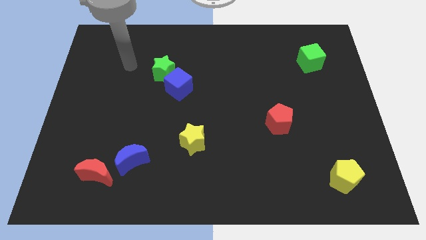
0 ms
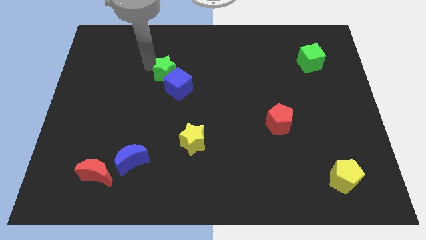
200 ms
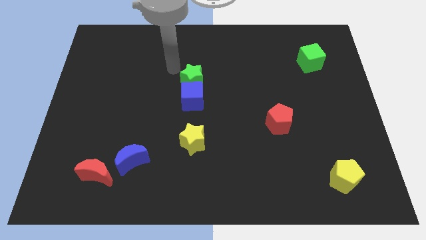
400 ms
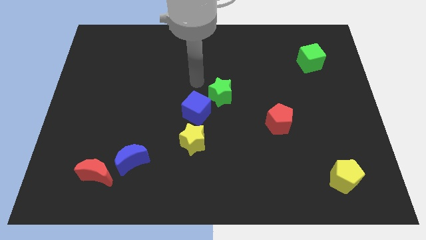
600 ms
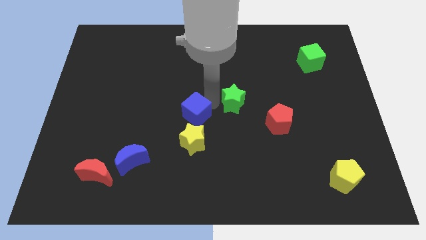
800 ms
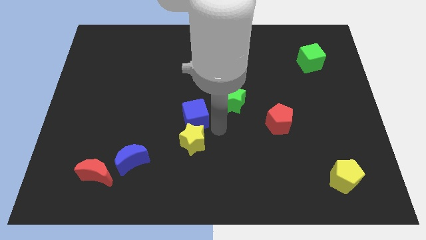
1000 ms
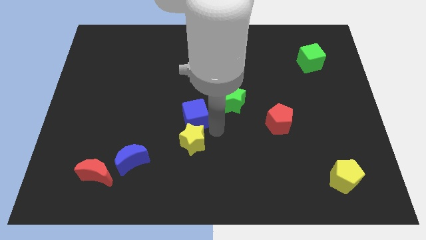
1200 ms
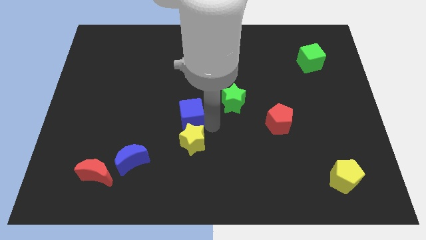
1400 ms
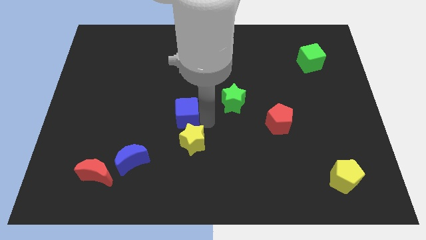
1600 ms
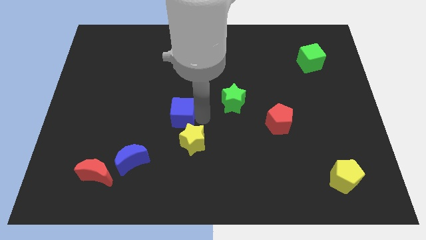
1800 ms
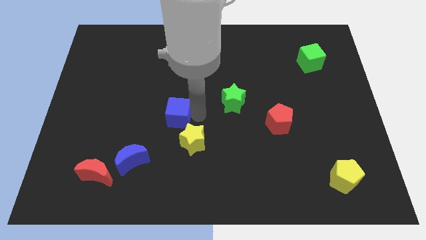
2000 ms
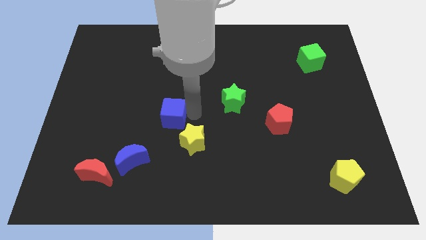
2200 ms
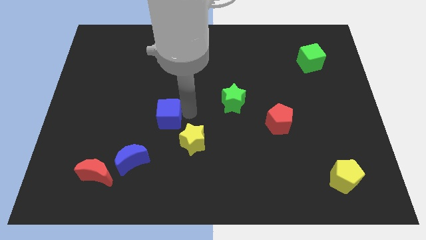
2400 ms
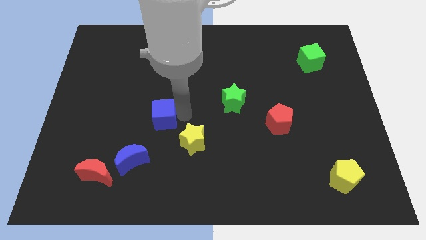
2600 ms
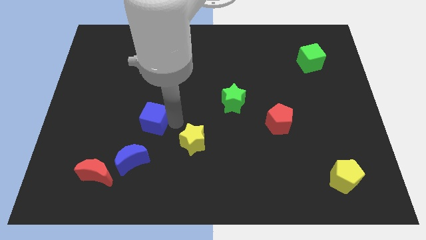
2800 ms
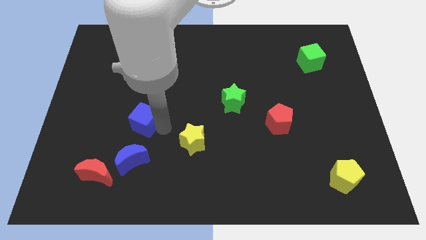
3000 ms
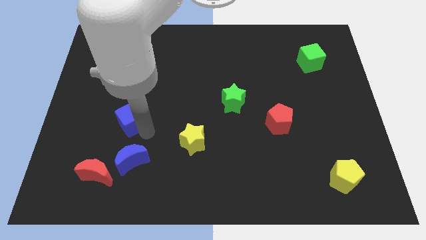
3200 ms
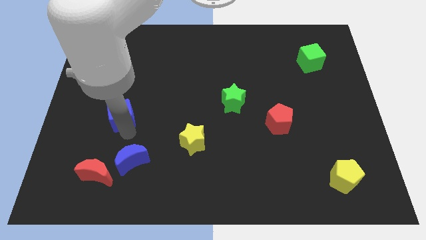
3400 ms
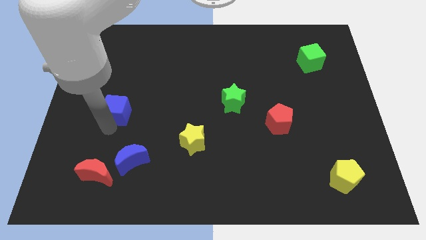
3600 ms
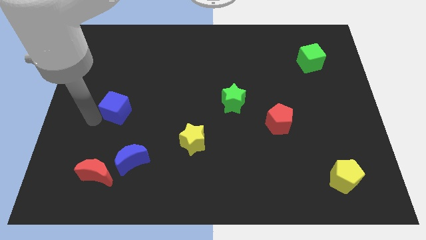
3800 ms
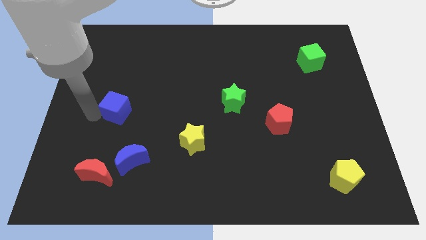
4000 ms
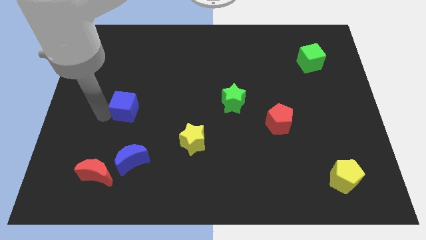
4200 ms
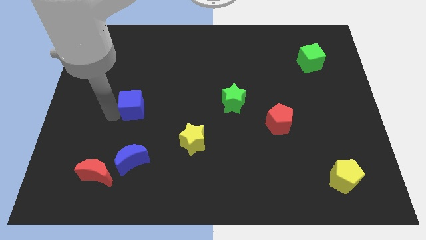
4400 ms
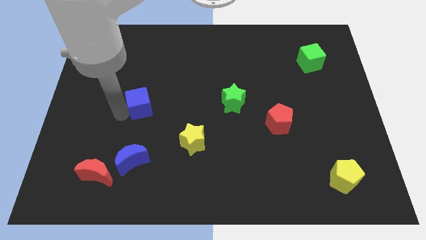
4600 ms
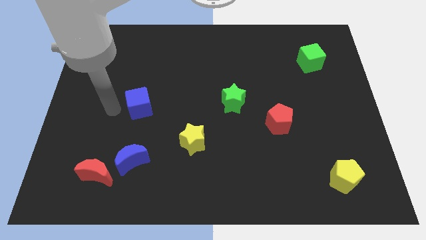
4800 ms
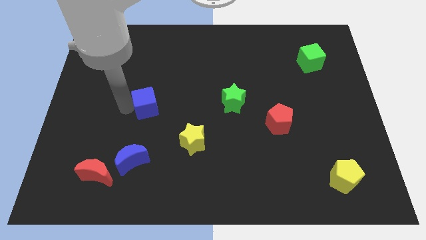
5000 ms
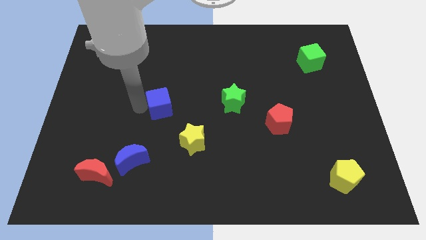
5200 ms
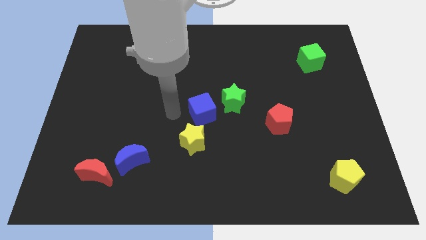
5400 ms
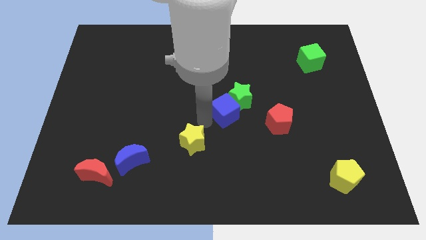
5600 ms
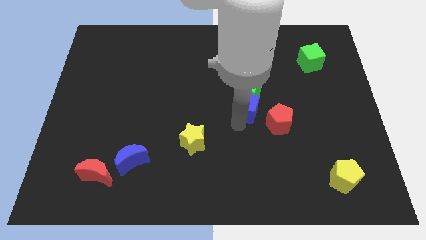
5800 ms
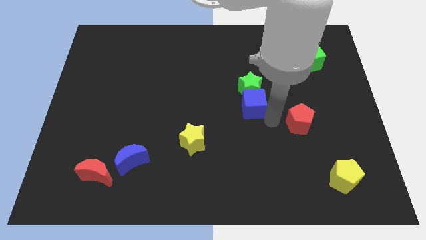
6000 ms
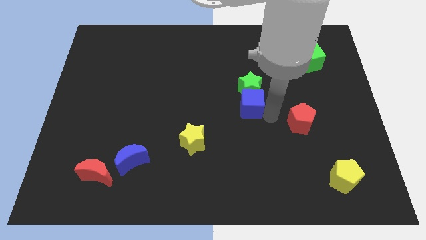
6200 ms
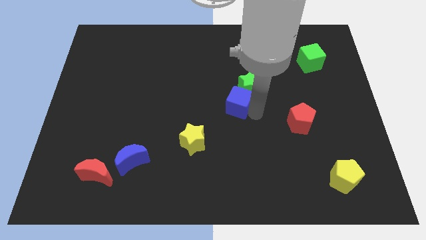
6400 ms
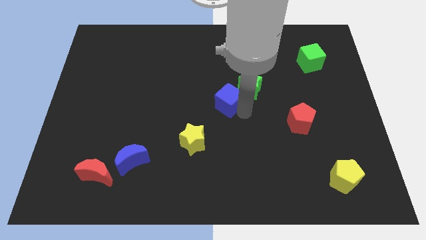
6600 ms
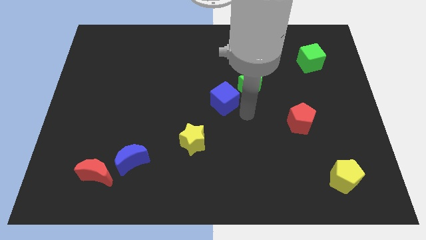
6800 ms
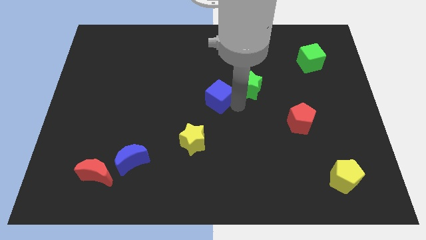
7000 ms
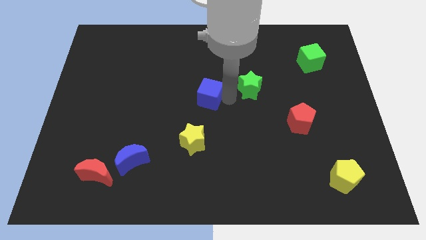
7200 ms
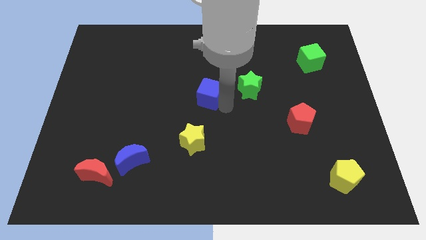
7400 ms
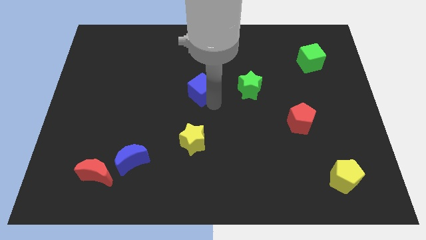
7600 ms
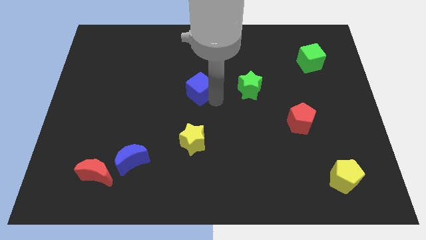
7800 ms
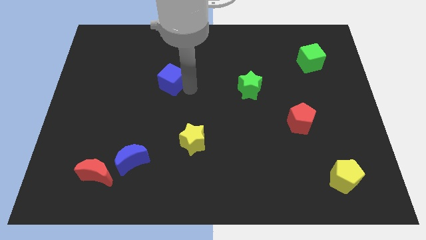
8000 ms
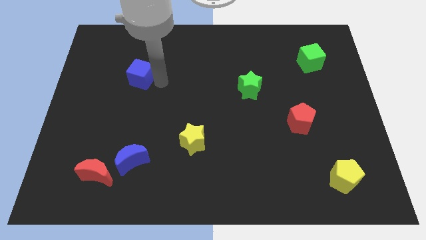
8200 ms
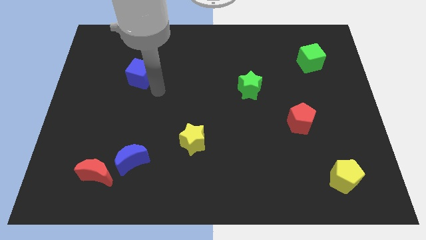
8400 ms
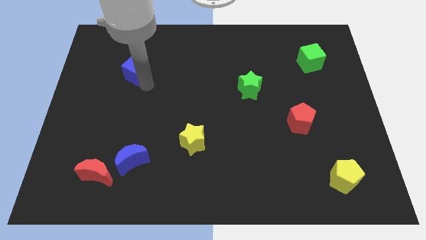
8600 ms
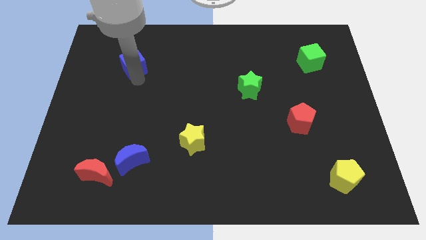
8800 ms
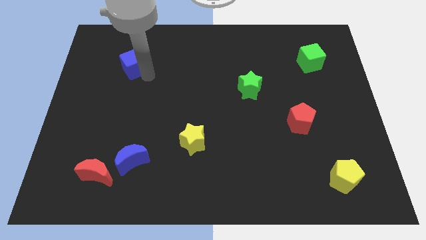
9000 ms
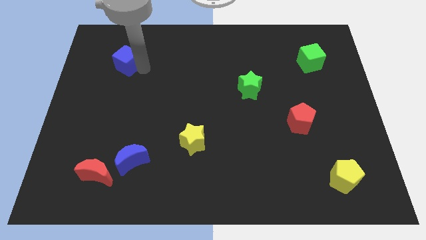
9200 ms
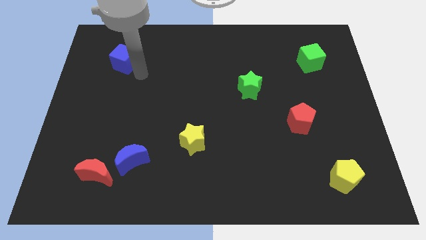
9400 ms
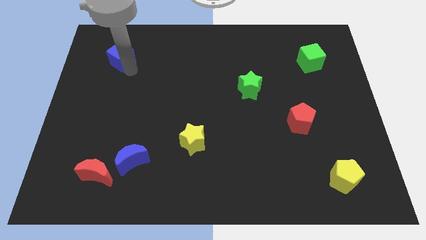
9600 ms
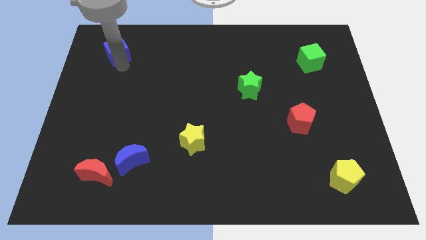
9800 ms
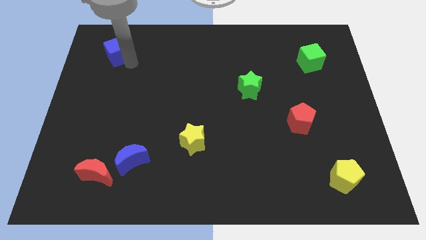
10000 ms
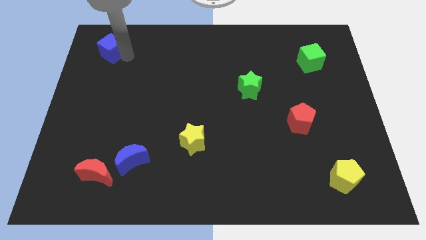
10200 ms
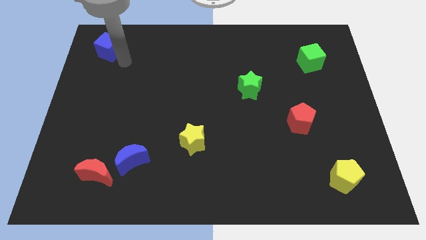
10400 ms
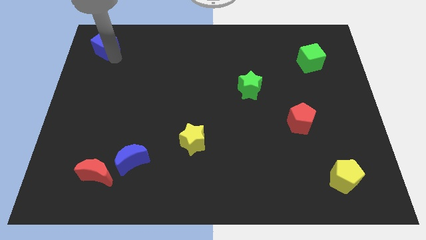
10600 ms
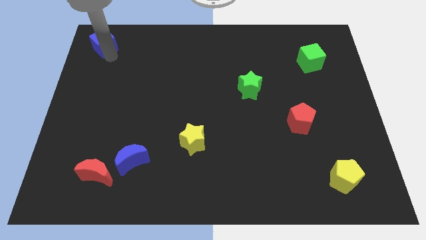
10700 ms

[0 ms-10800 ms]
move the blue cube to the upper left corner
